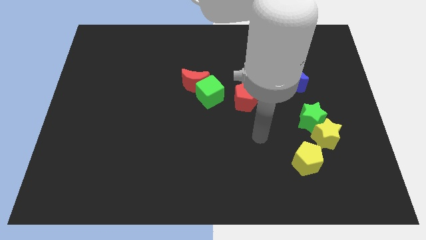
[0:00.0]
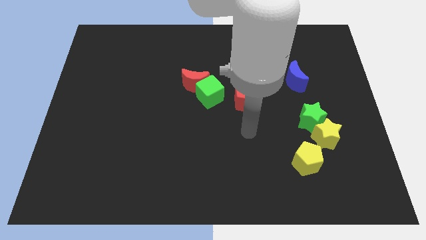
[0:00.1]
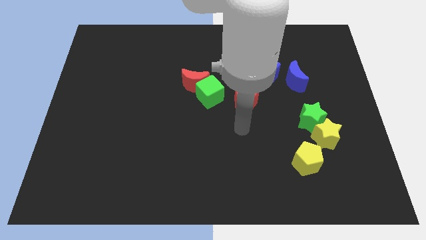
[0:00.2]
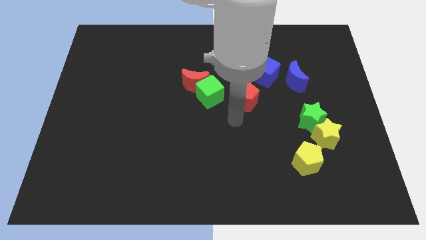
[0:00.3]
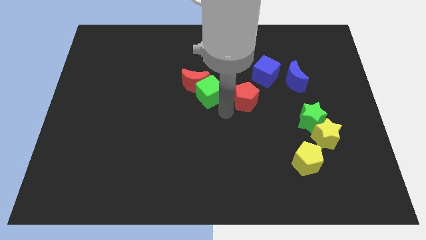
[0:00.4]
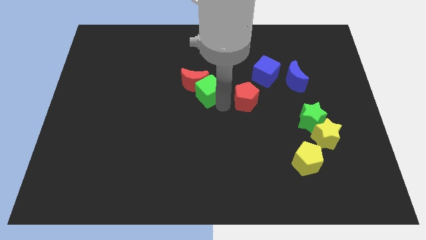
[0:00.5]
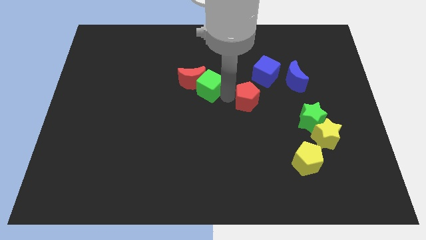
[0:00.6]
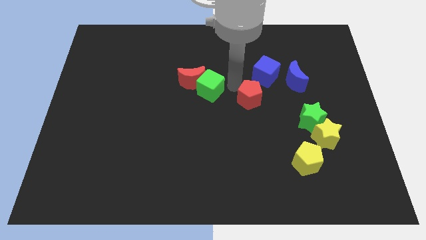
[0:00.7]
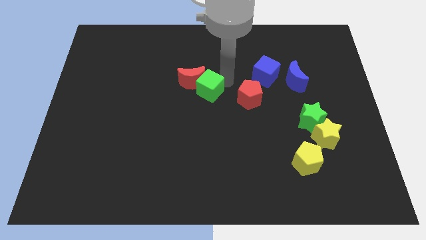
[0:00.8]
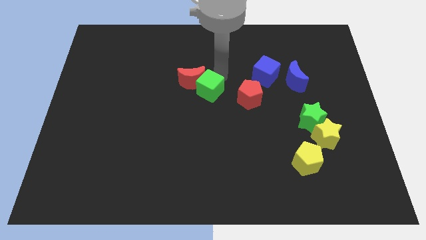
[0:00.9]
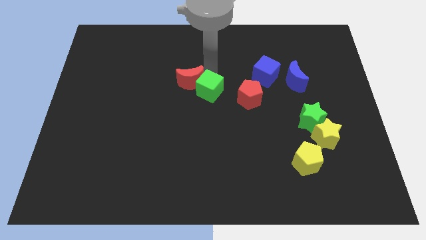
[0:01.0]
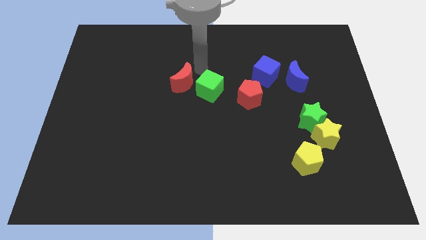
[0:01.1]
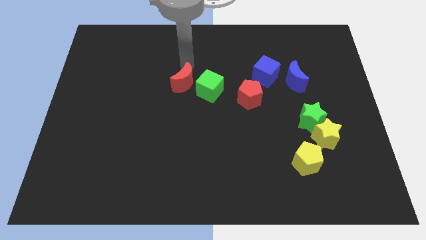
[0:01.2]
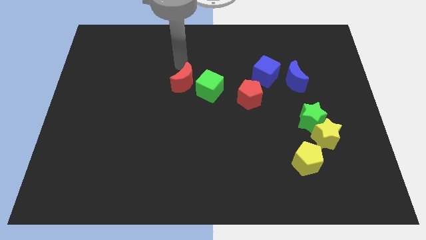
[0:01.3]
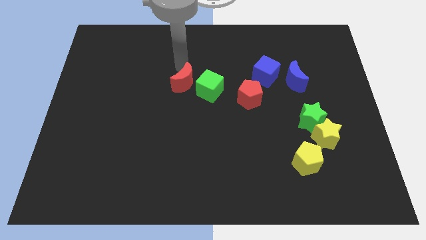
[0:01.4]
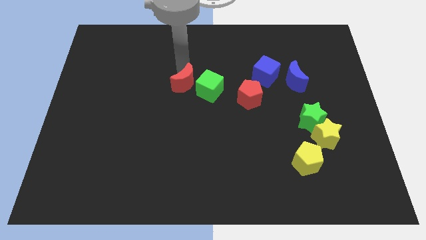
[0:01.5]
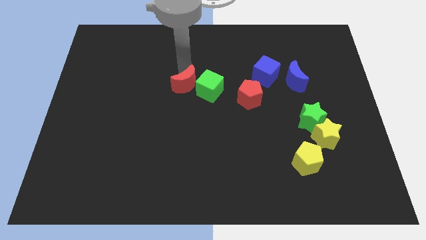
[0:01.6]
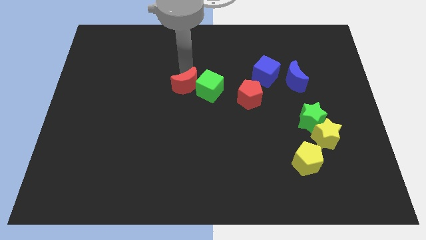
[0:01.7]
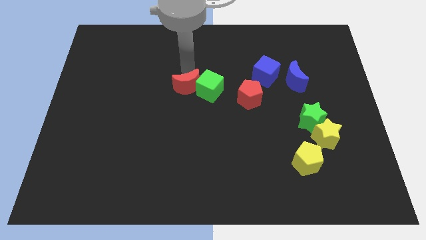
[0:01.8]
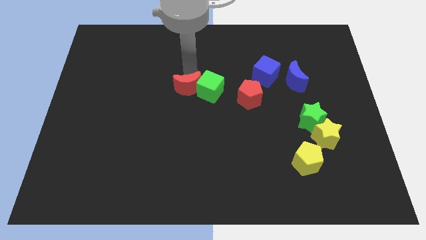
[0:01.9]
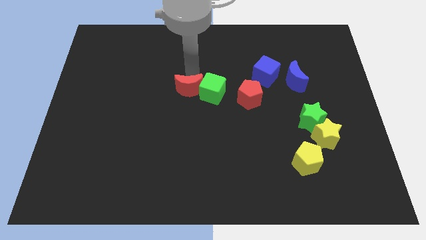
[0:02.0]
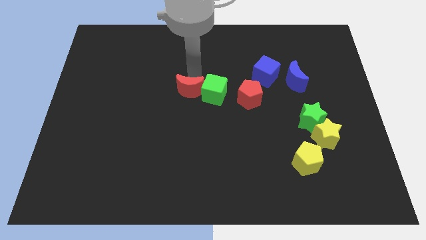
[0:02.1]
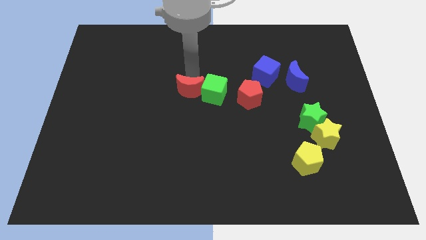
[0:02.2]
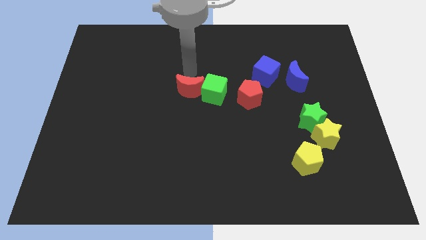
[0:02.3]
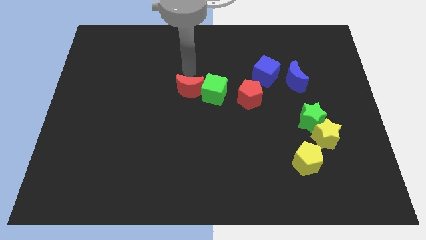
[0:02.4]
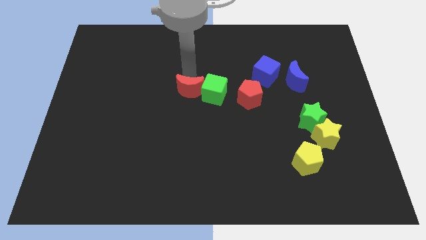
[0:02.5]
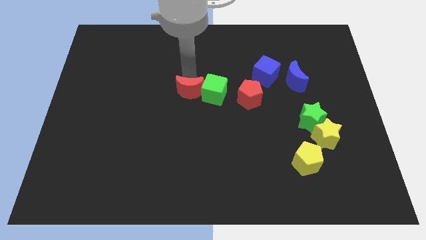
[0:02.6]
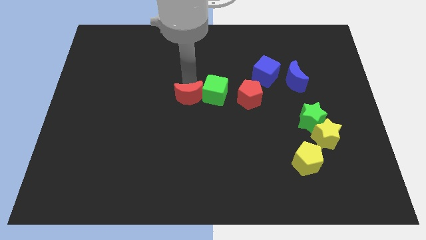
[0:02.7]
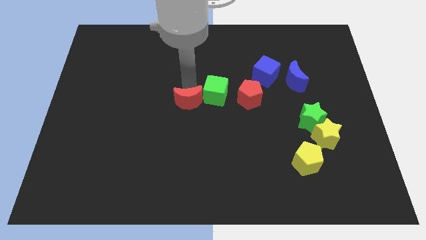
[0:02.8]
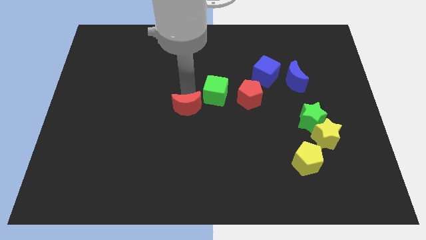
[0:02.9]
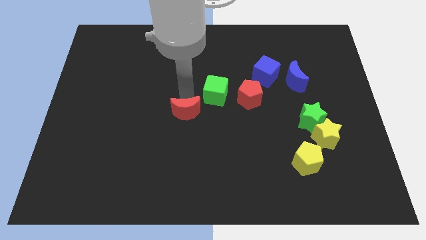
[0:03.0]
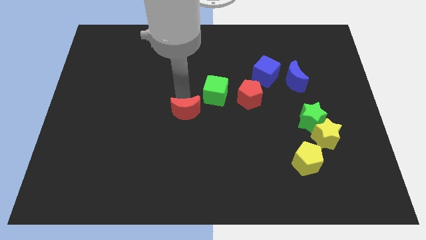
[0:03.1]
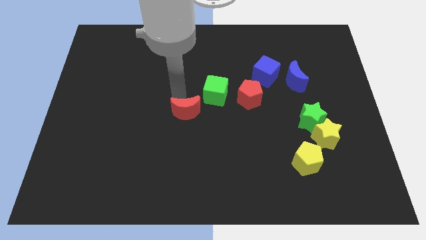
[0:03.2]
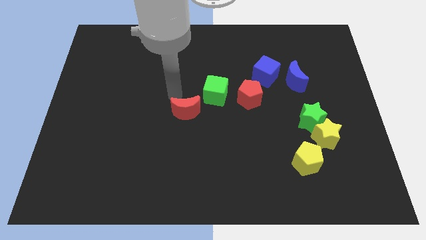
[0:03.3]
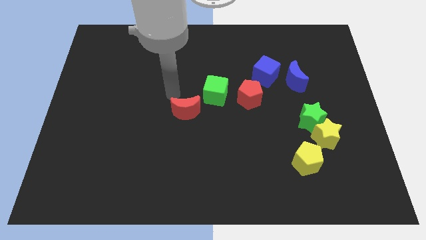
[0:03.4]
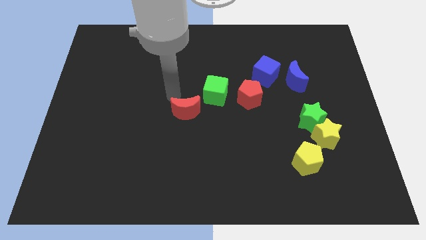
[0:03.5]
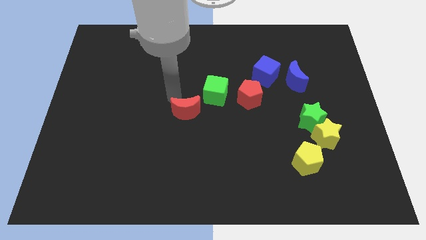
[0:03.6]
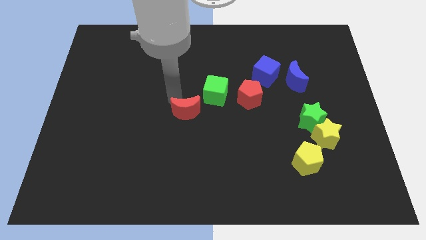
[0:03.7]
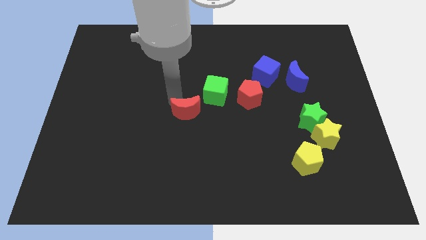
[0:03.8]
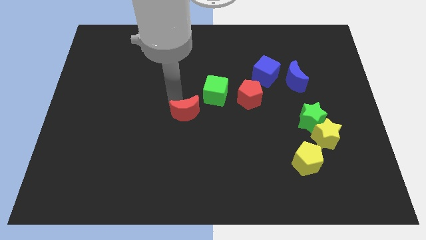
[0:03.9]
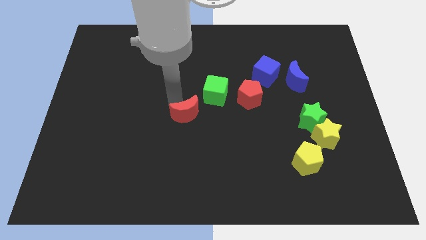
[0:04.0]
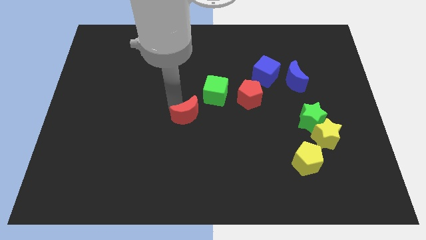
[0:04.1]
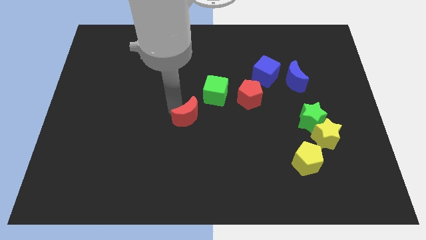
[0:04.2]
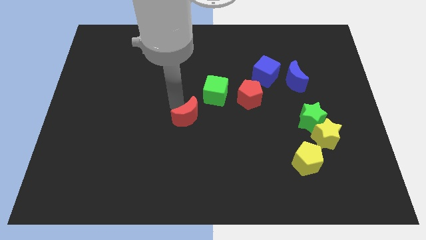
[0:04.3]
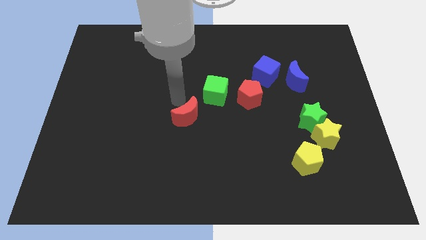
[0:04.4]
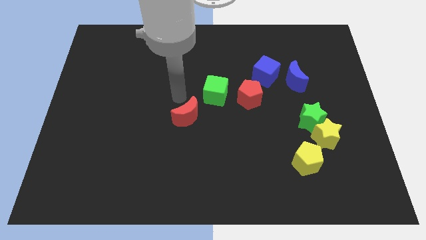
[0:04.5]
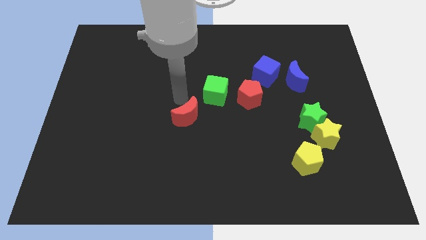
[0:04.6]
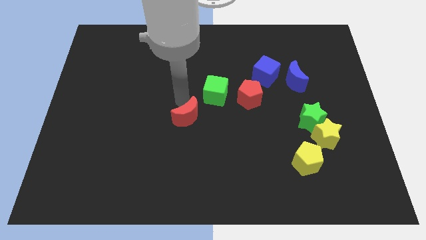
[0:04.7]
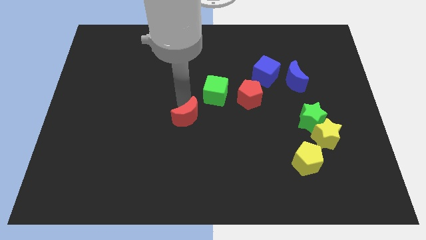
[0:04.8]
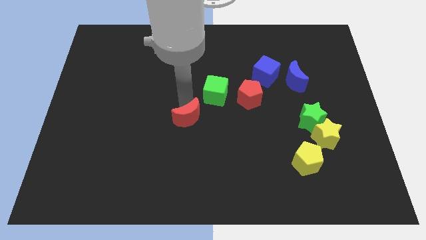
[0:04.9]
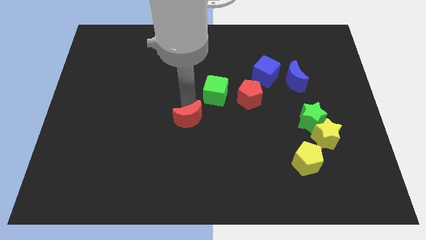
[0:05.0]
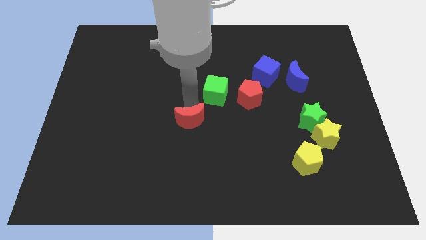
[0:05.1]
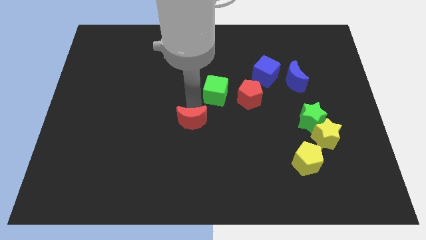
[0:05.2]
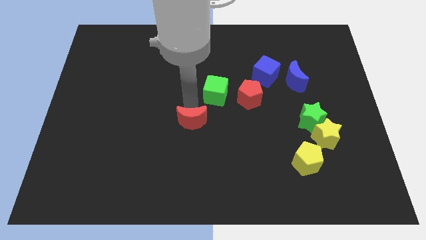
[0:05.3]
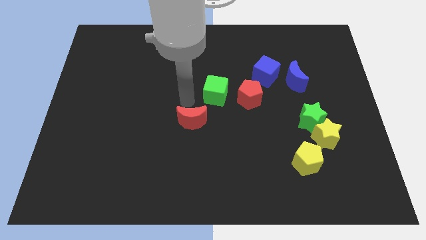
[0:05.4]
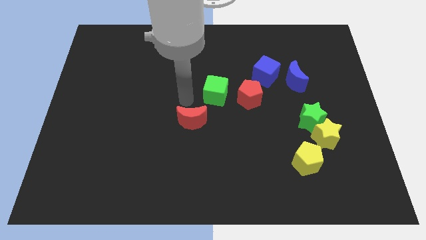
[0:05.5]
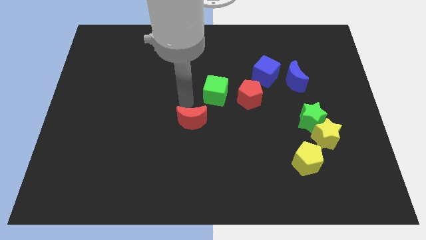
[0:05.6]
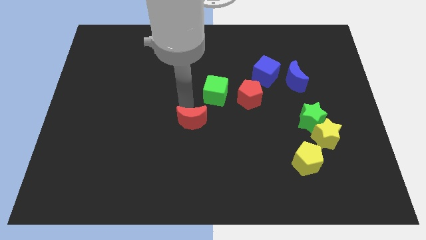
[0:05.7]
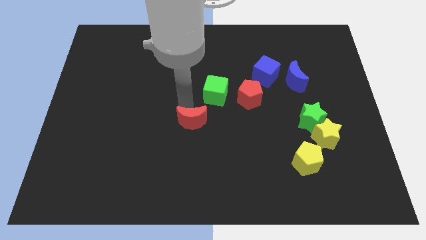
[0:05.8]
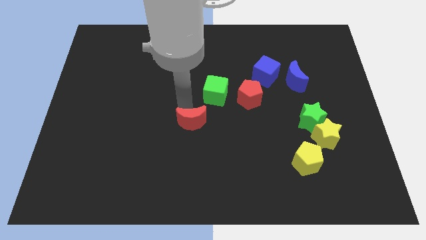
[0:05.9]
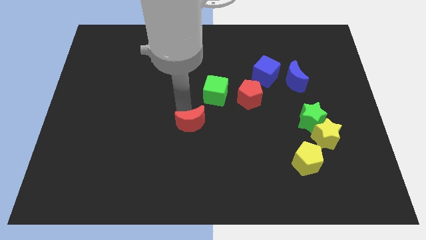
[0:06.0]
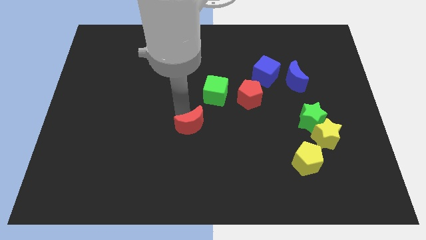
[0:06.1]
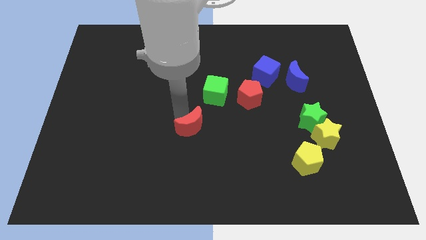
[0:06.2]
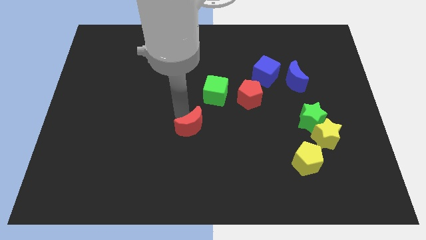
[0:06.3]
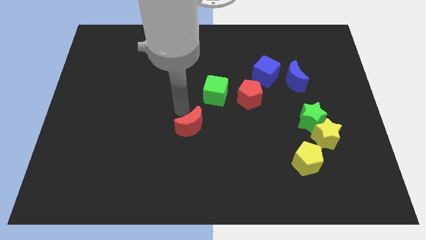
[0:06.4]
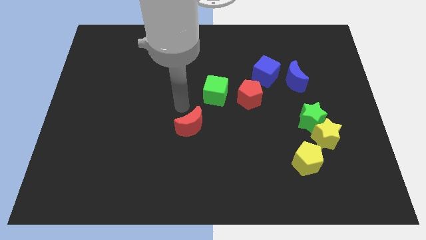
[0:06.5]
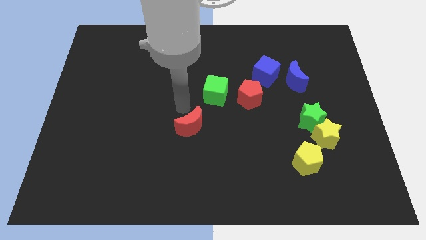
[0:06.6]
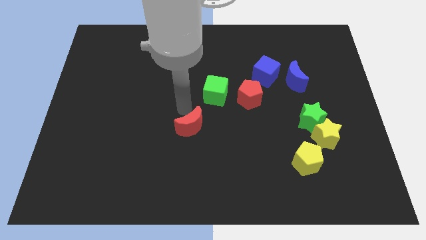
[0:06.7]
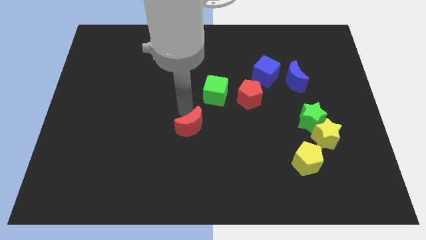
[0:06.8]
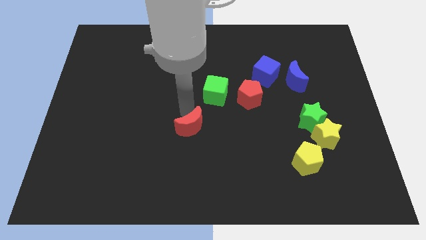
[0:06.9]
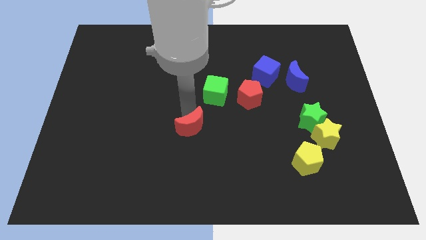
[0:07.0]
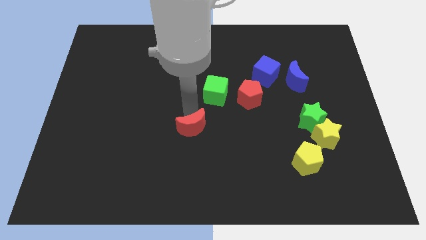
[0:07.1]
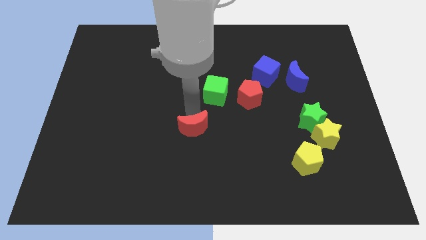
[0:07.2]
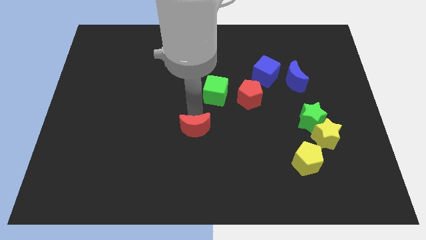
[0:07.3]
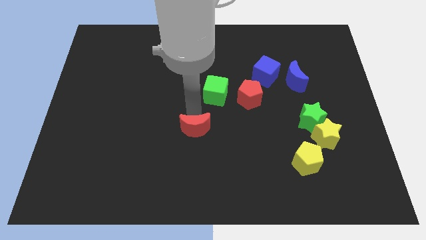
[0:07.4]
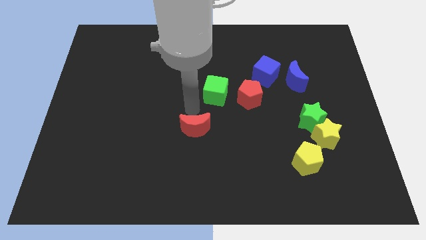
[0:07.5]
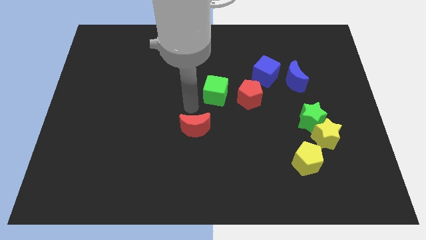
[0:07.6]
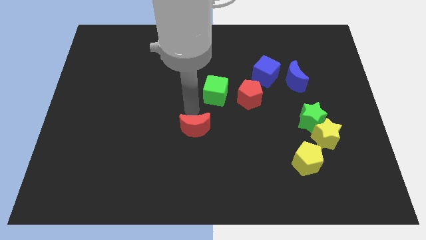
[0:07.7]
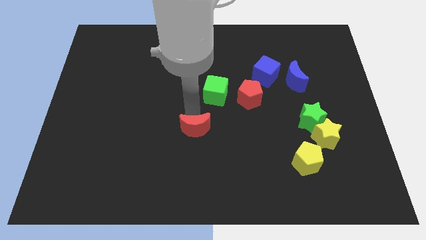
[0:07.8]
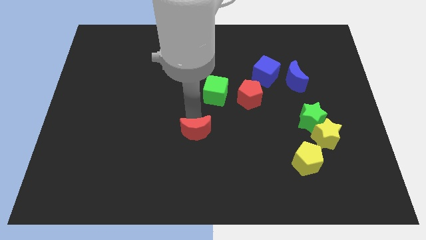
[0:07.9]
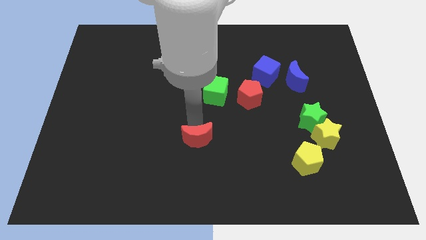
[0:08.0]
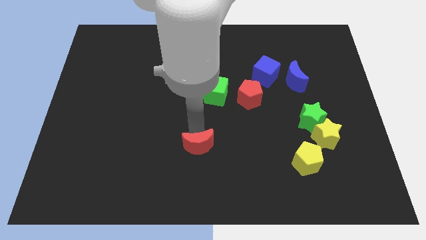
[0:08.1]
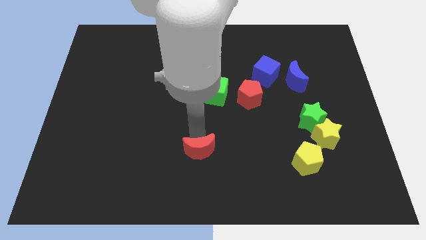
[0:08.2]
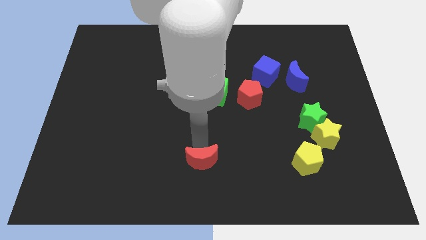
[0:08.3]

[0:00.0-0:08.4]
put the red moon to the bottom side
